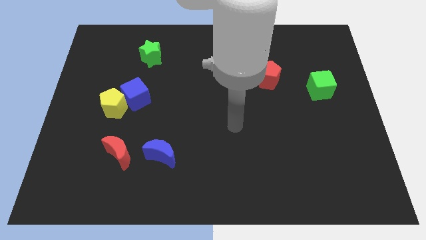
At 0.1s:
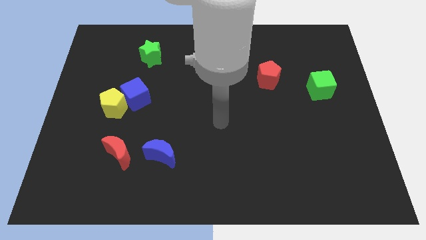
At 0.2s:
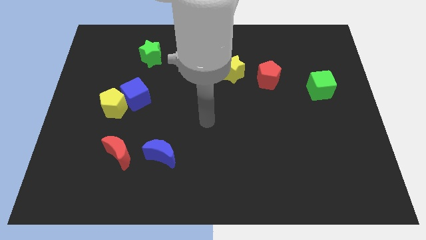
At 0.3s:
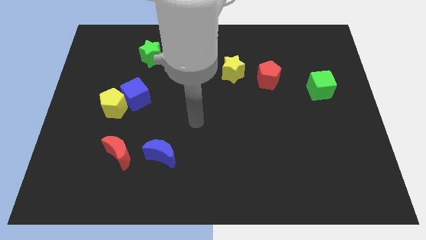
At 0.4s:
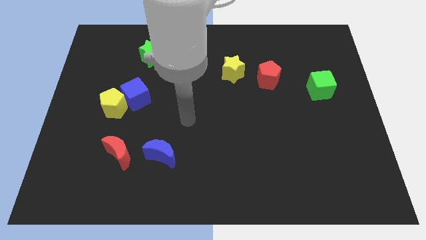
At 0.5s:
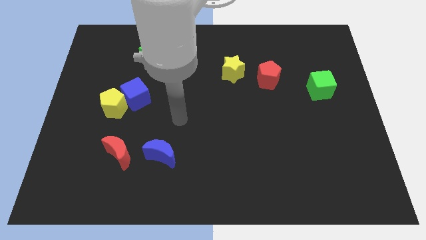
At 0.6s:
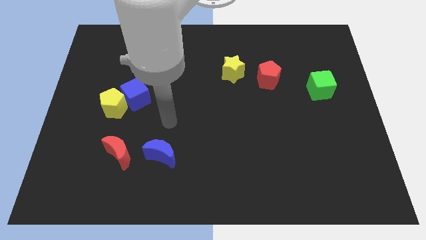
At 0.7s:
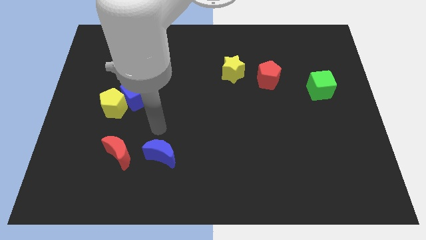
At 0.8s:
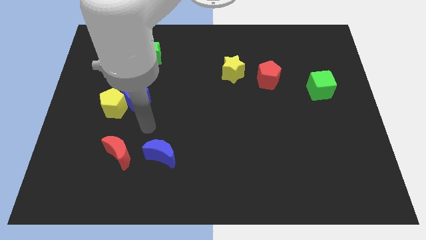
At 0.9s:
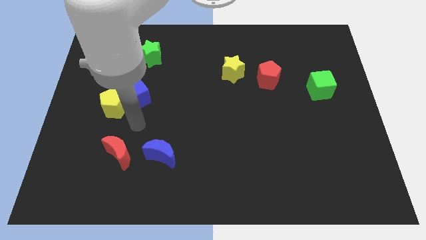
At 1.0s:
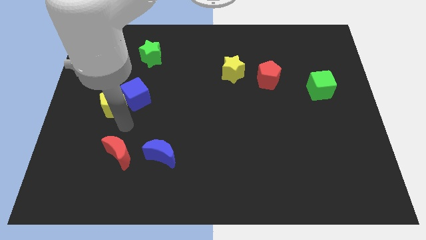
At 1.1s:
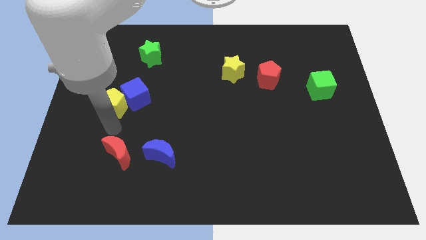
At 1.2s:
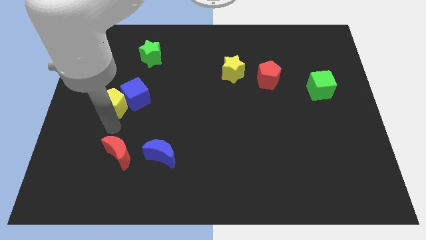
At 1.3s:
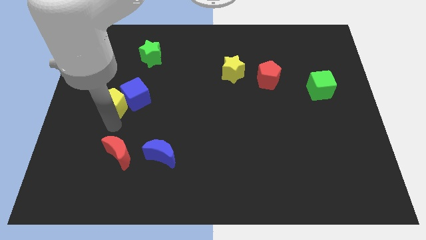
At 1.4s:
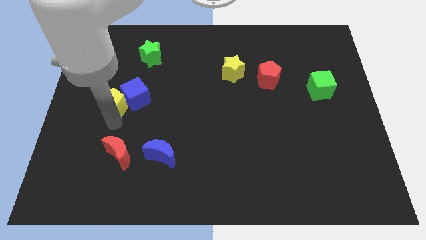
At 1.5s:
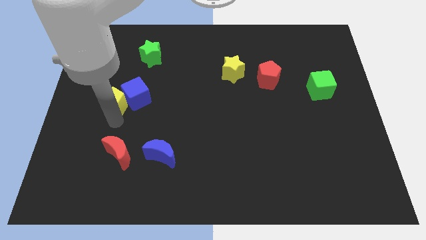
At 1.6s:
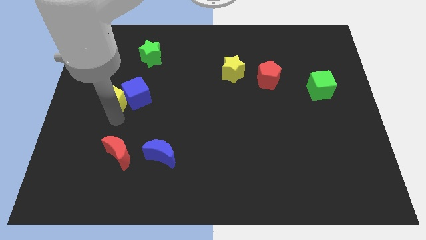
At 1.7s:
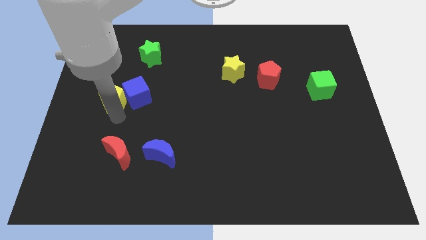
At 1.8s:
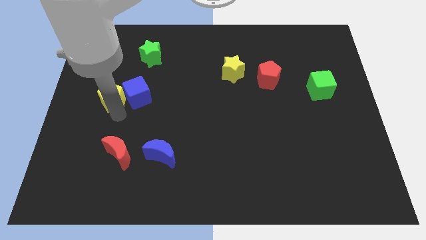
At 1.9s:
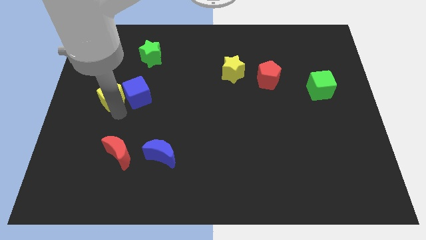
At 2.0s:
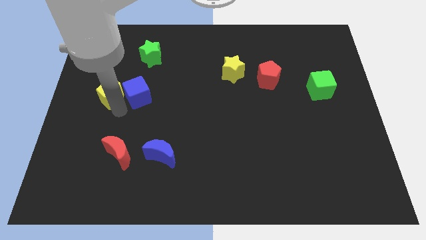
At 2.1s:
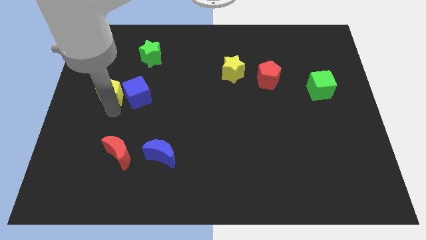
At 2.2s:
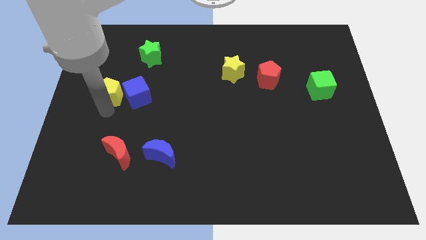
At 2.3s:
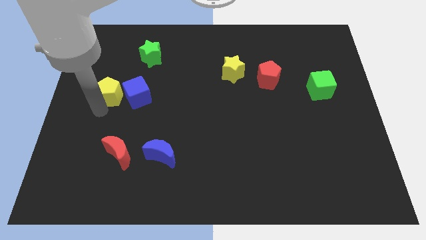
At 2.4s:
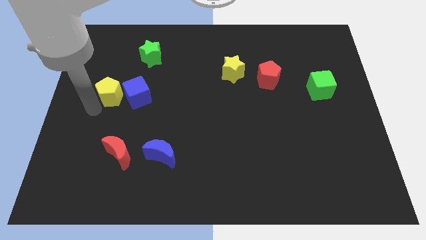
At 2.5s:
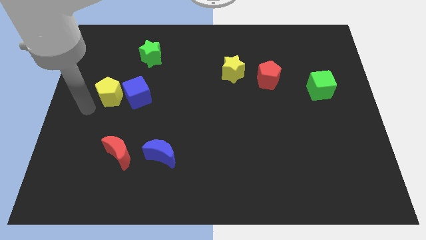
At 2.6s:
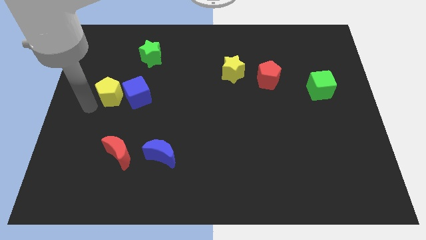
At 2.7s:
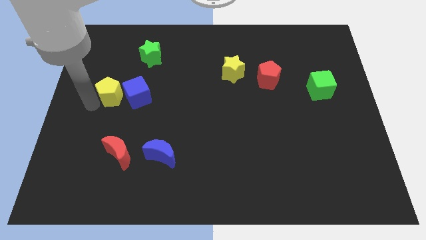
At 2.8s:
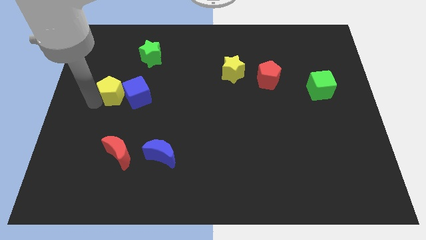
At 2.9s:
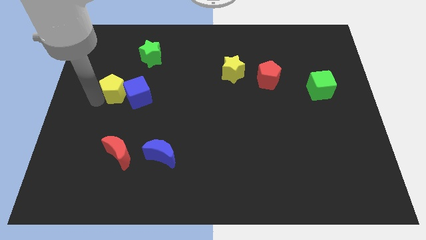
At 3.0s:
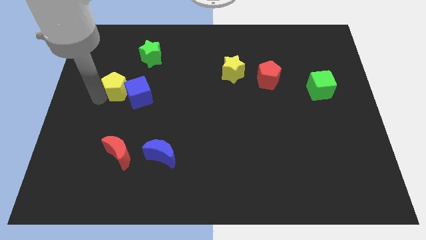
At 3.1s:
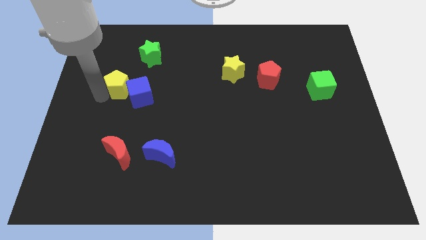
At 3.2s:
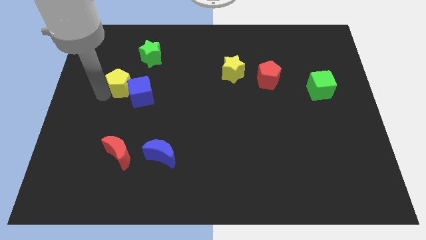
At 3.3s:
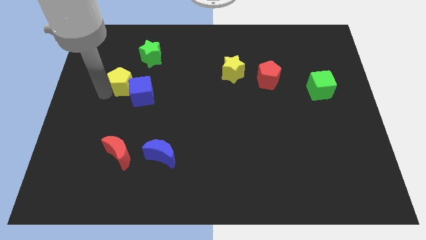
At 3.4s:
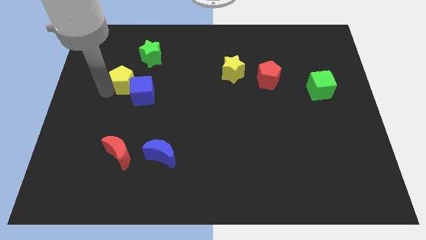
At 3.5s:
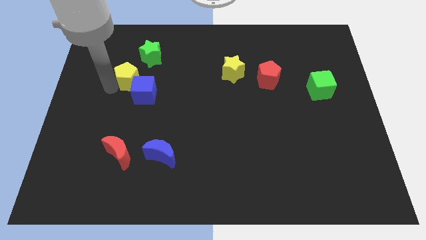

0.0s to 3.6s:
slightly slide the yellow pentagon diagonally up and to the right

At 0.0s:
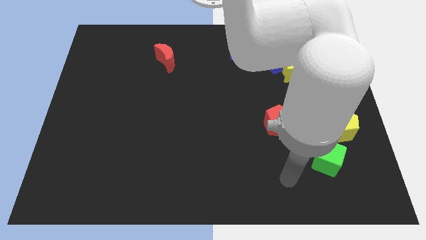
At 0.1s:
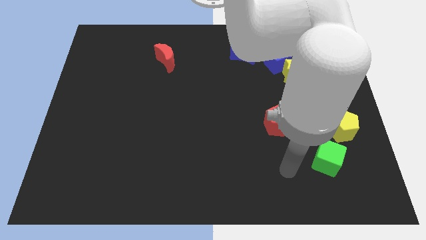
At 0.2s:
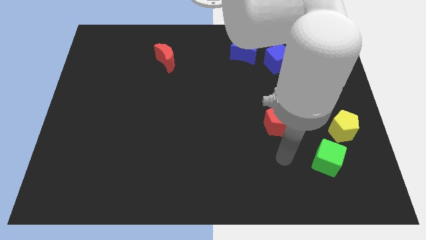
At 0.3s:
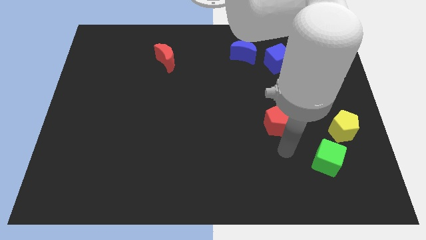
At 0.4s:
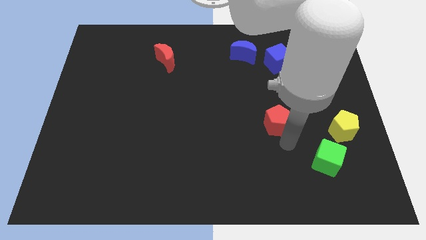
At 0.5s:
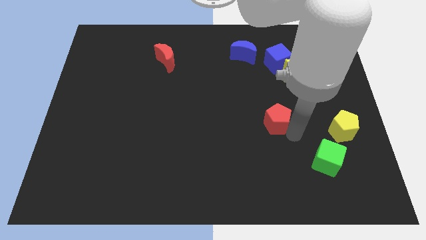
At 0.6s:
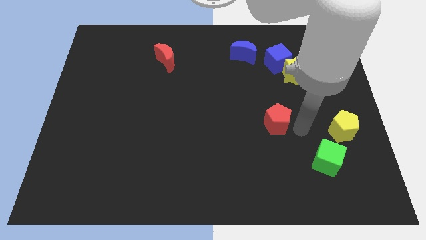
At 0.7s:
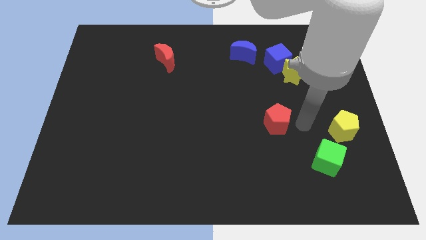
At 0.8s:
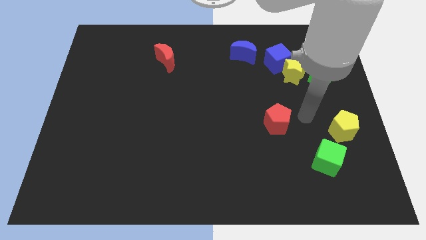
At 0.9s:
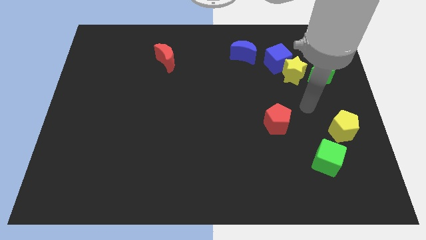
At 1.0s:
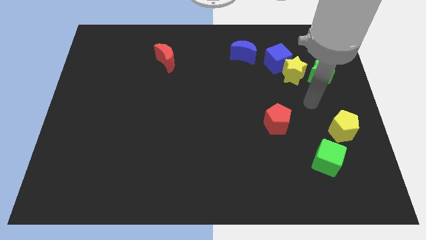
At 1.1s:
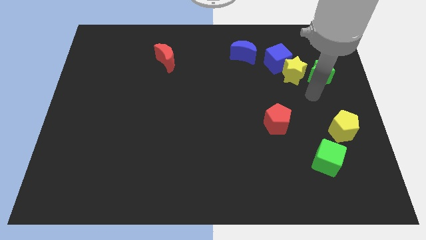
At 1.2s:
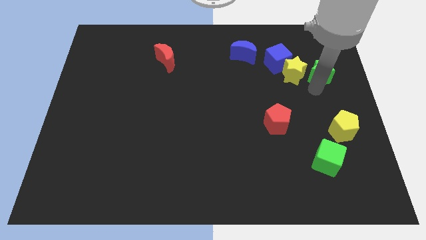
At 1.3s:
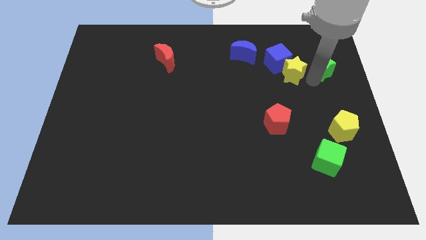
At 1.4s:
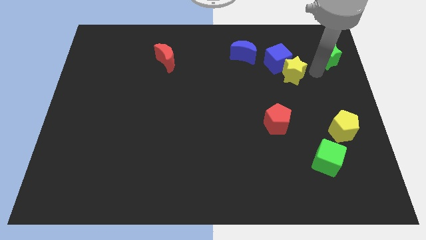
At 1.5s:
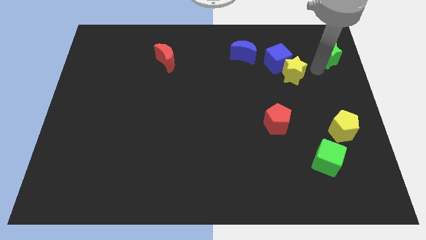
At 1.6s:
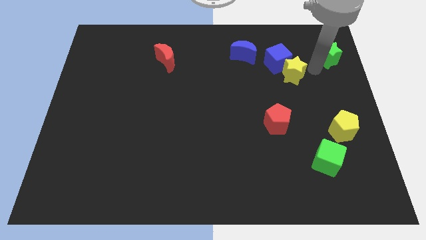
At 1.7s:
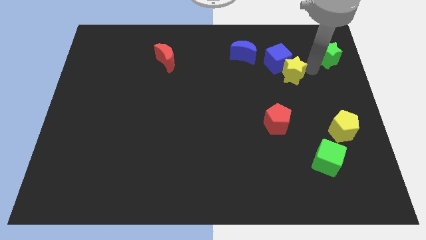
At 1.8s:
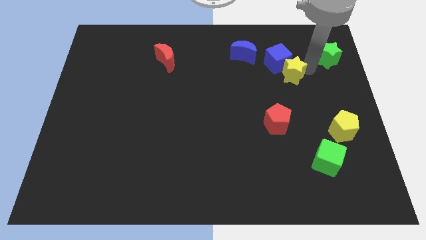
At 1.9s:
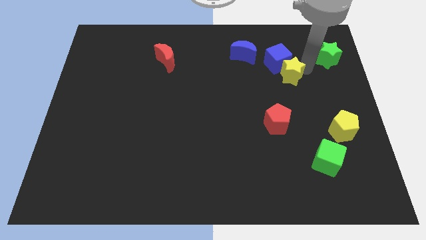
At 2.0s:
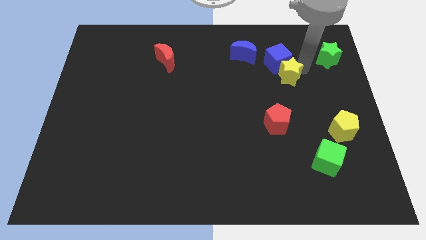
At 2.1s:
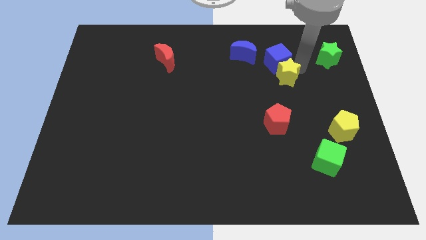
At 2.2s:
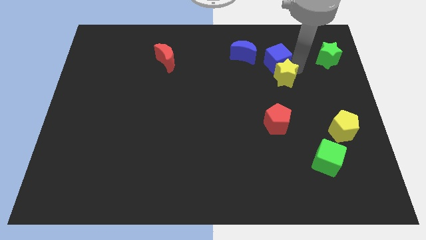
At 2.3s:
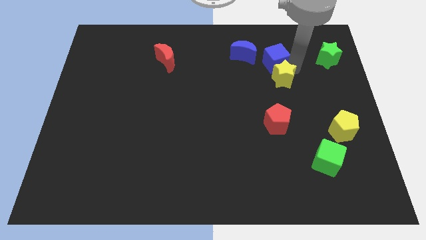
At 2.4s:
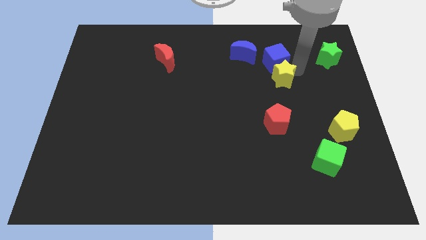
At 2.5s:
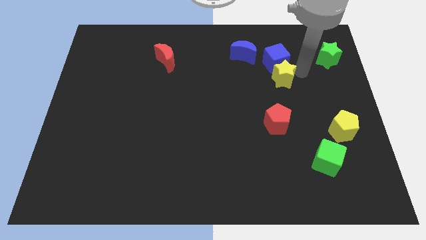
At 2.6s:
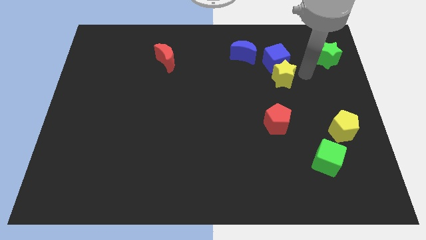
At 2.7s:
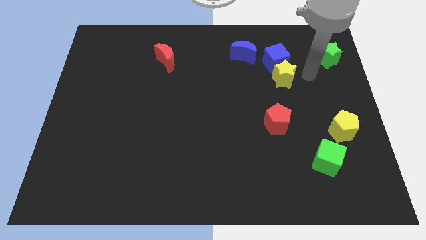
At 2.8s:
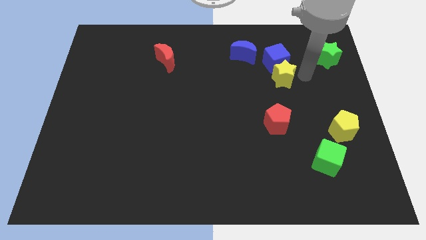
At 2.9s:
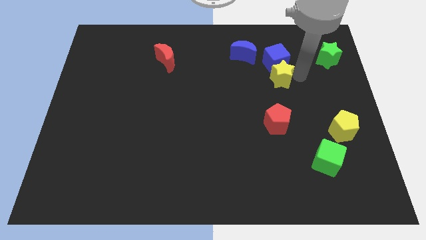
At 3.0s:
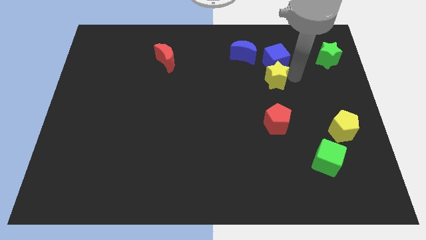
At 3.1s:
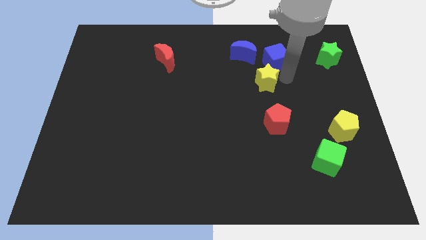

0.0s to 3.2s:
slightly push the yellow star to the left

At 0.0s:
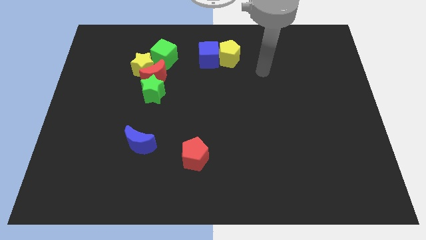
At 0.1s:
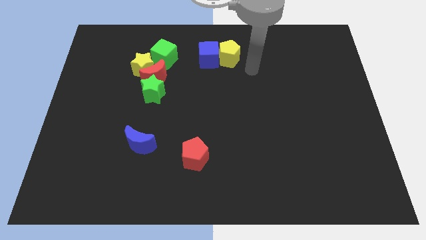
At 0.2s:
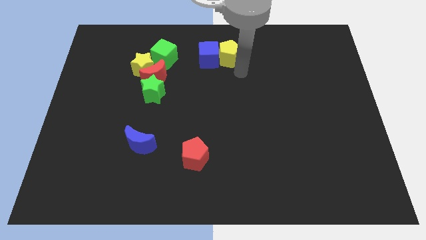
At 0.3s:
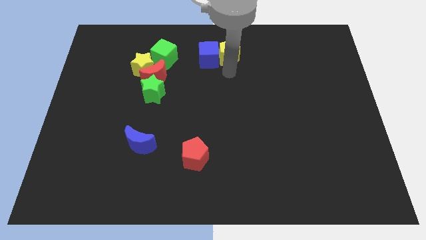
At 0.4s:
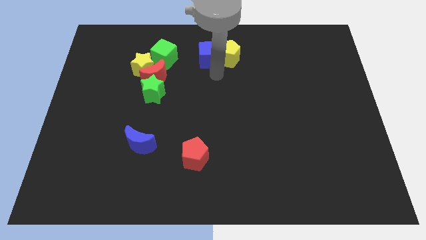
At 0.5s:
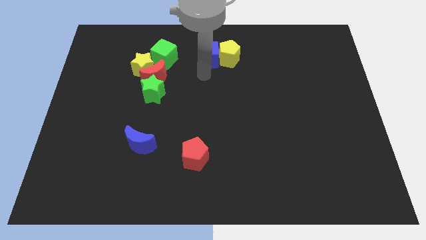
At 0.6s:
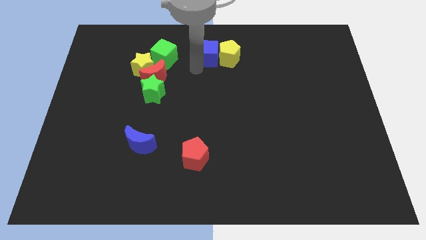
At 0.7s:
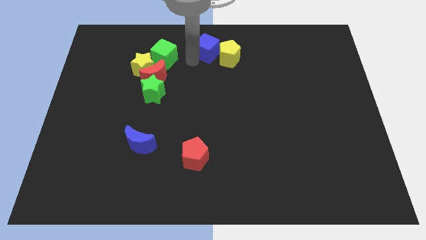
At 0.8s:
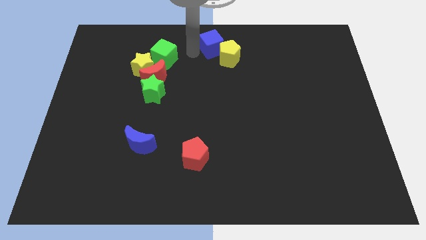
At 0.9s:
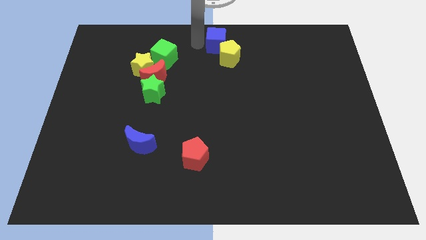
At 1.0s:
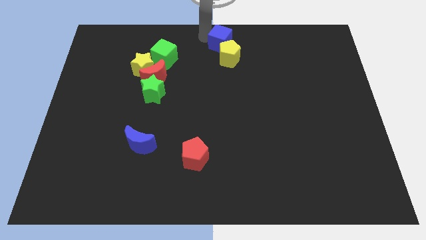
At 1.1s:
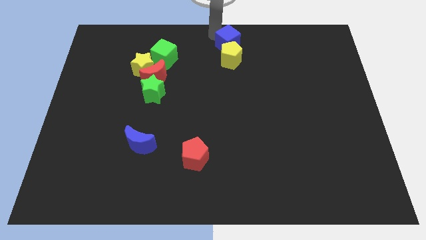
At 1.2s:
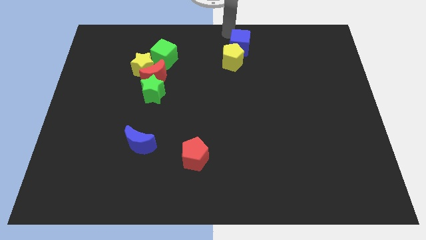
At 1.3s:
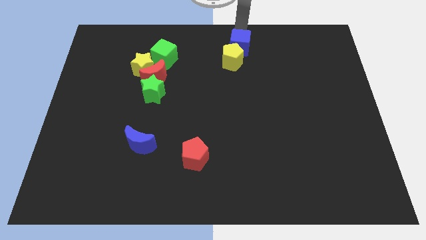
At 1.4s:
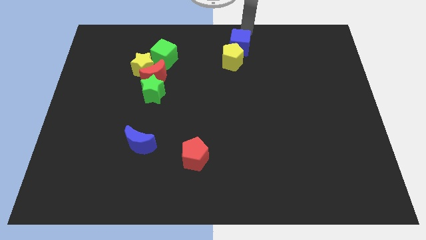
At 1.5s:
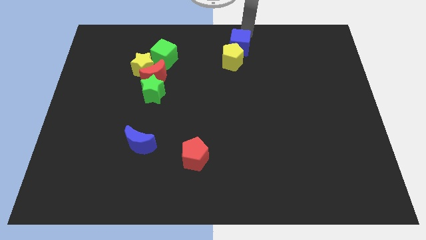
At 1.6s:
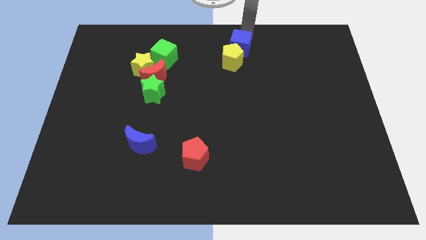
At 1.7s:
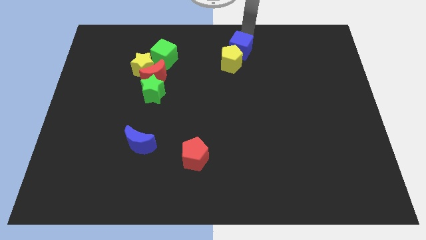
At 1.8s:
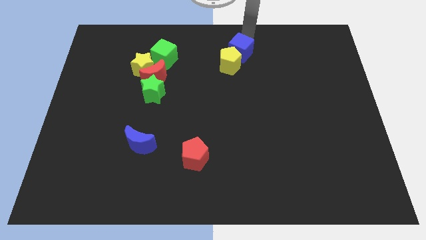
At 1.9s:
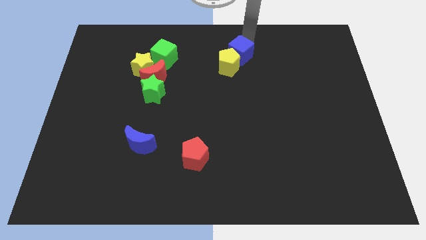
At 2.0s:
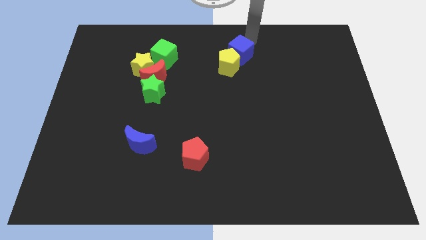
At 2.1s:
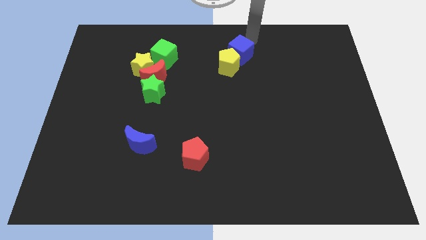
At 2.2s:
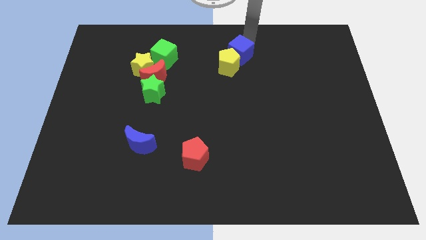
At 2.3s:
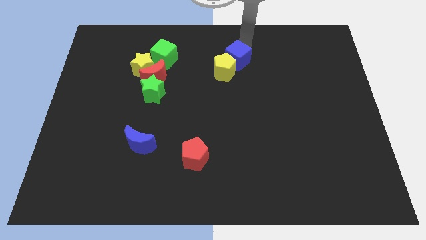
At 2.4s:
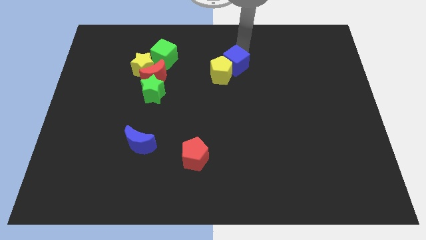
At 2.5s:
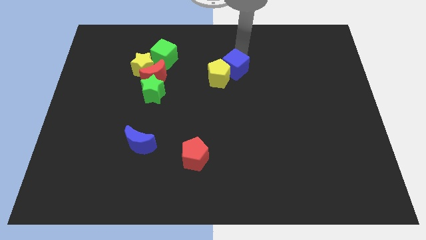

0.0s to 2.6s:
slightly slide the blue cube down and right
